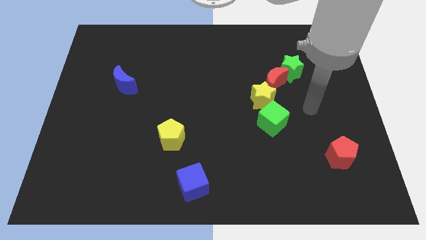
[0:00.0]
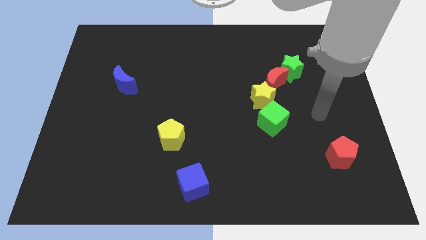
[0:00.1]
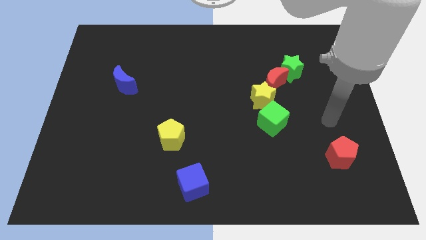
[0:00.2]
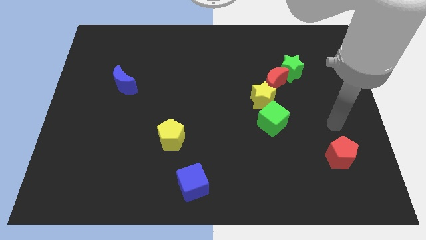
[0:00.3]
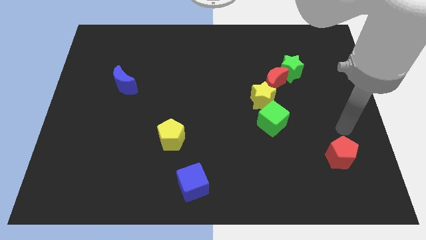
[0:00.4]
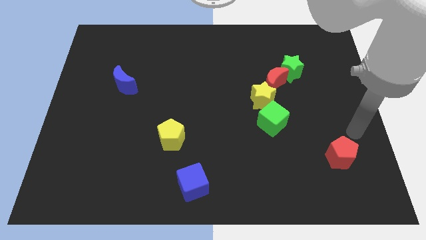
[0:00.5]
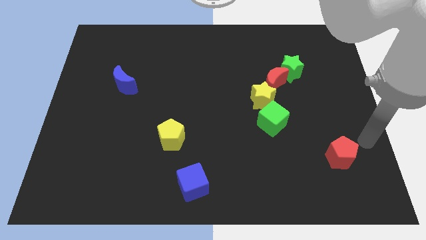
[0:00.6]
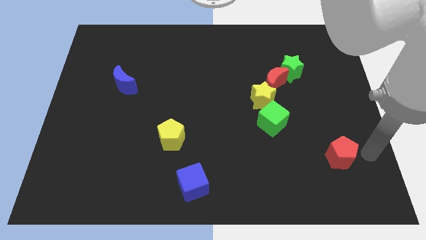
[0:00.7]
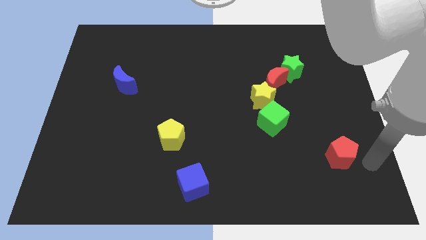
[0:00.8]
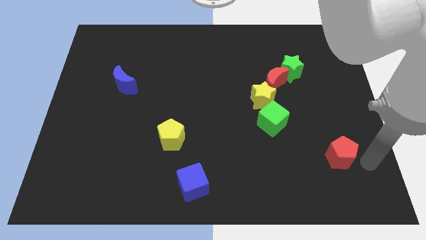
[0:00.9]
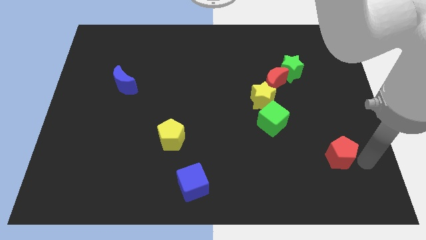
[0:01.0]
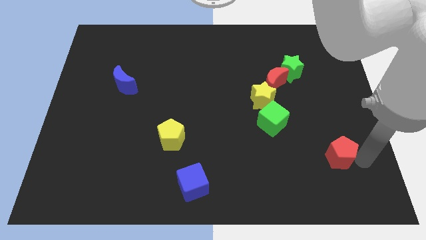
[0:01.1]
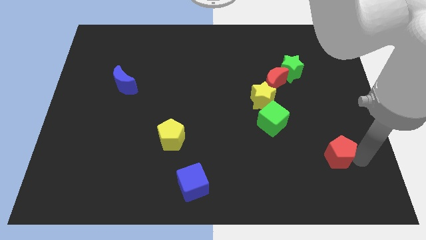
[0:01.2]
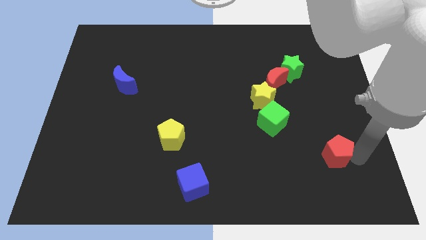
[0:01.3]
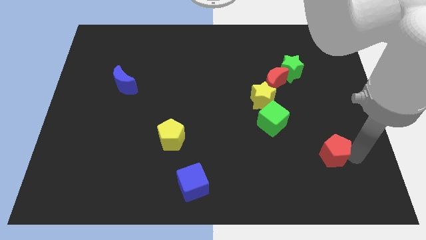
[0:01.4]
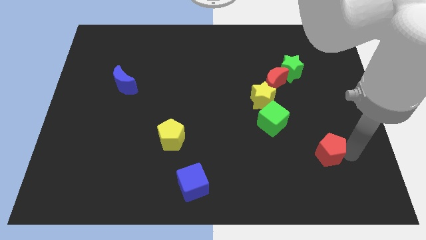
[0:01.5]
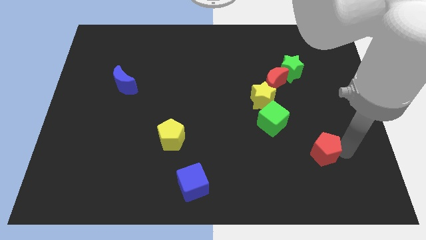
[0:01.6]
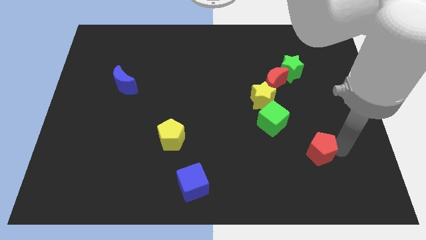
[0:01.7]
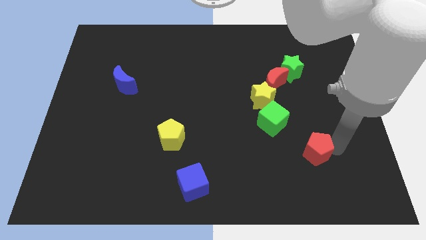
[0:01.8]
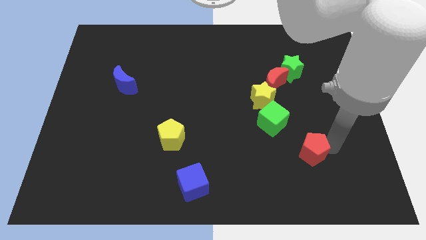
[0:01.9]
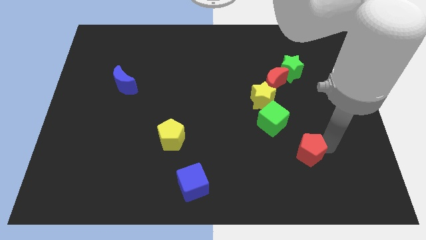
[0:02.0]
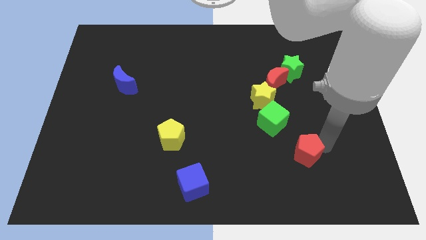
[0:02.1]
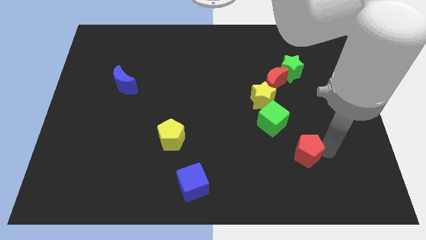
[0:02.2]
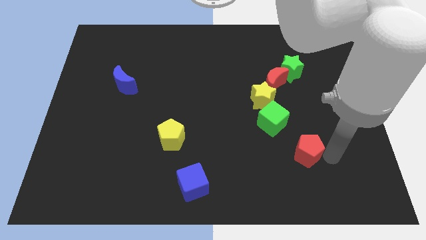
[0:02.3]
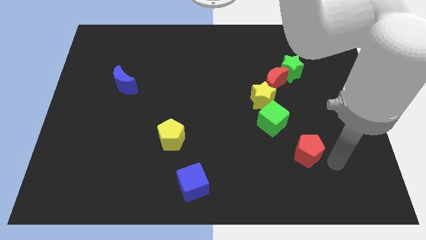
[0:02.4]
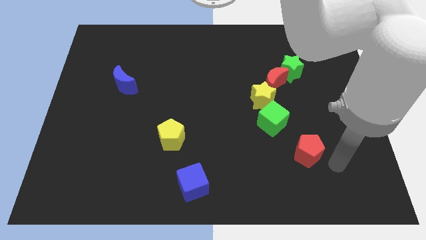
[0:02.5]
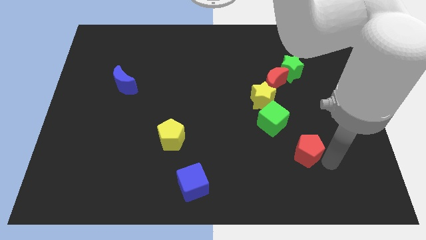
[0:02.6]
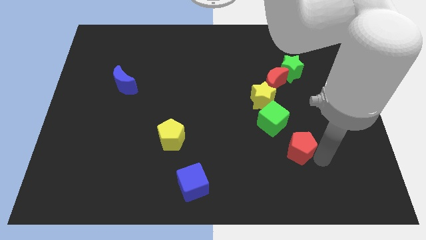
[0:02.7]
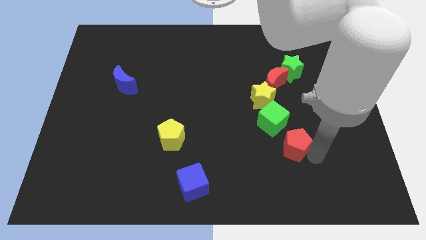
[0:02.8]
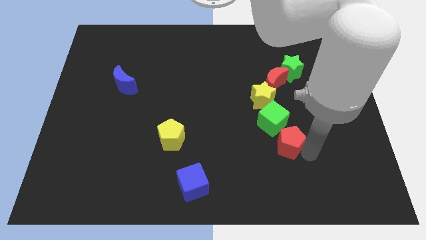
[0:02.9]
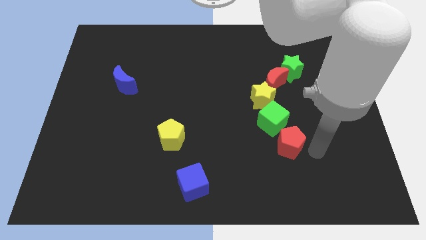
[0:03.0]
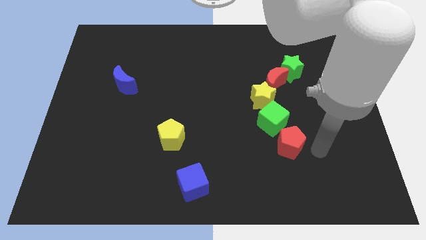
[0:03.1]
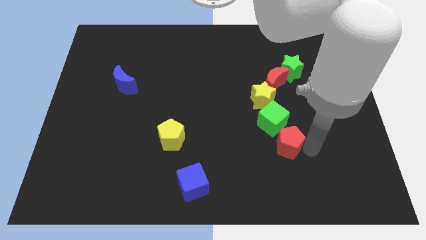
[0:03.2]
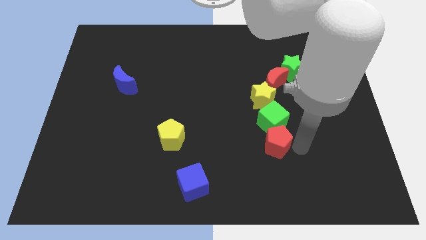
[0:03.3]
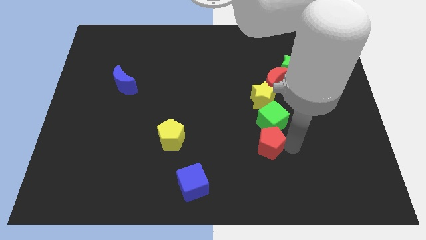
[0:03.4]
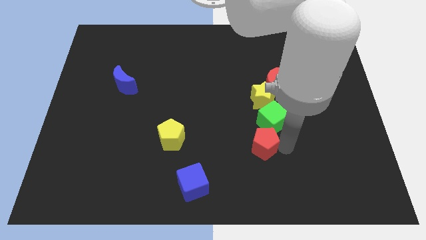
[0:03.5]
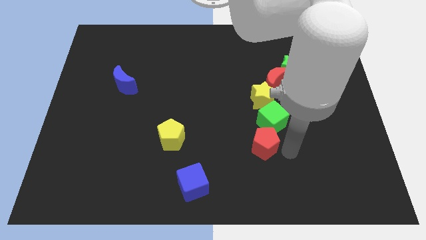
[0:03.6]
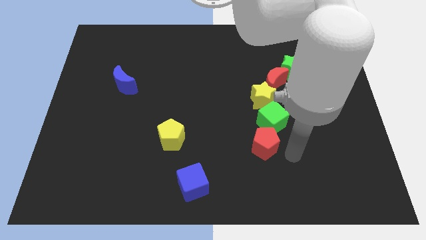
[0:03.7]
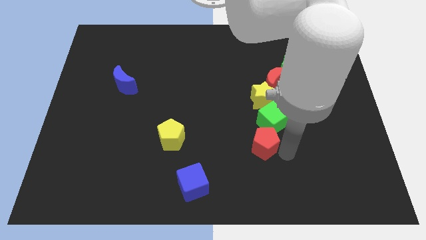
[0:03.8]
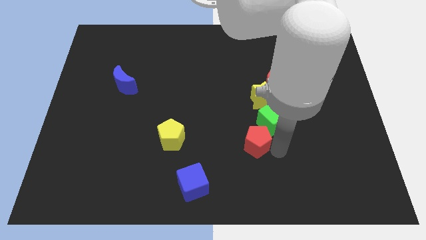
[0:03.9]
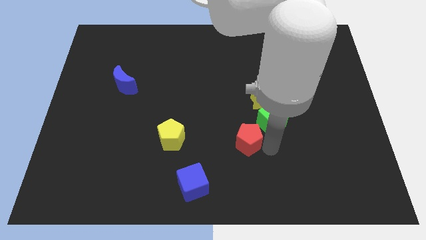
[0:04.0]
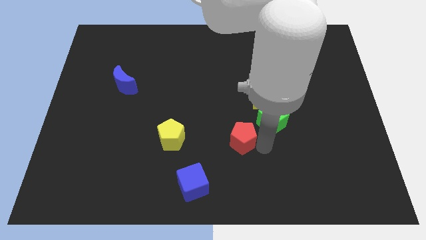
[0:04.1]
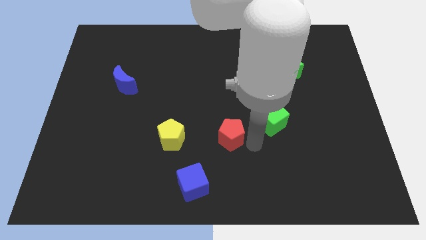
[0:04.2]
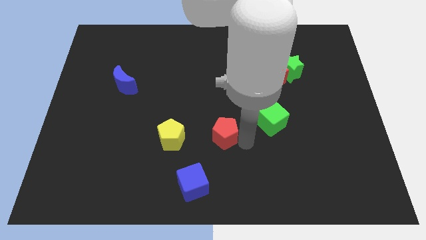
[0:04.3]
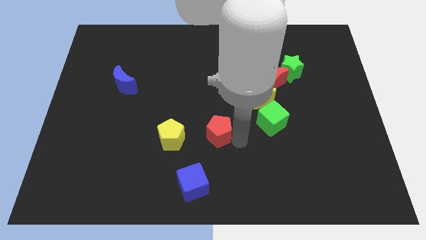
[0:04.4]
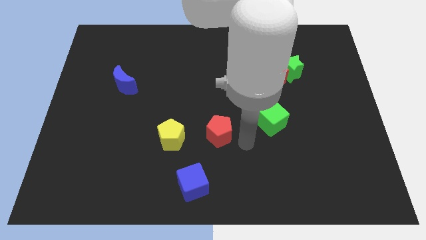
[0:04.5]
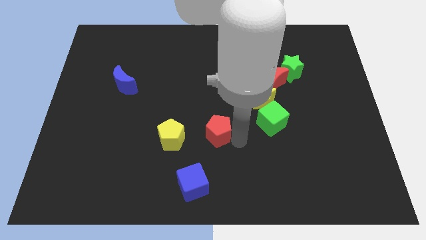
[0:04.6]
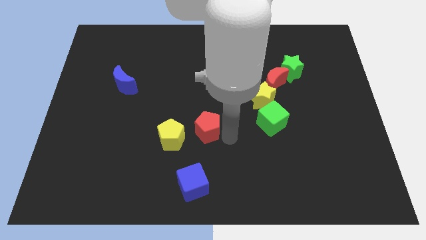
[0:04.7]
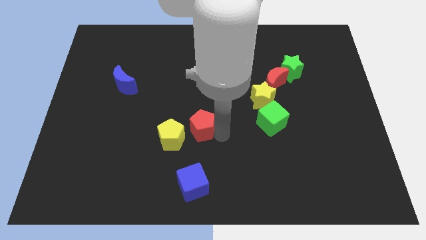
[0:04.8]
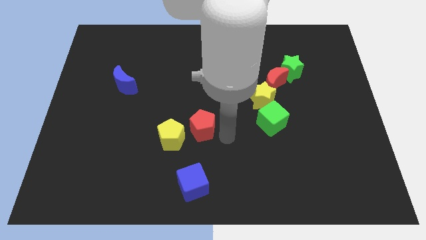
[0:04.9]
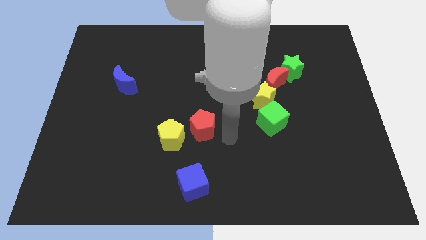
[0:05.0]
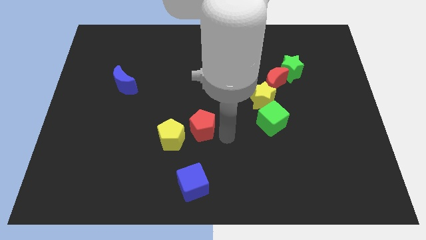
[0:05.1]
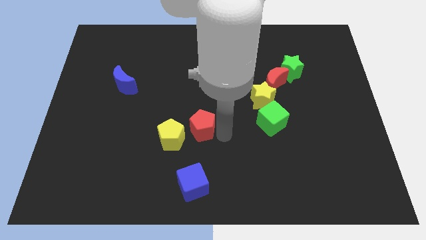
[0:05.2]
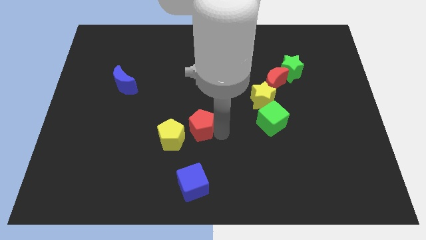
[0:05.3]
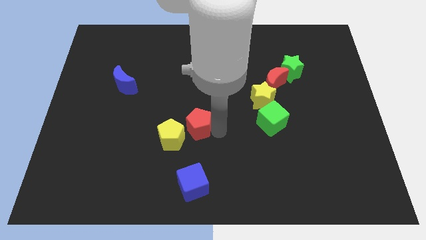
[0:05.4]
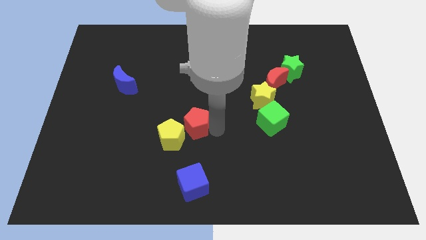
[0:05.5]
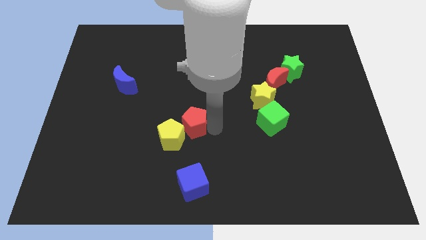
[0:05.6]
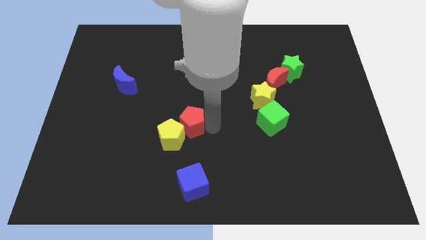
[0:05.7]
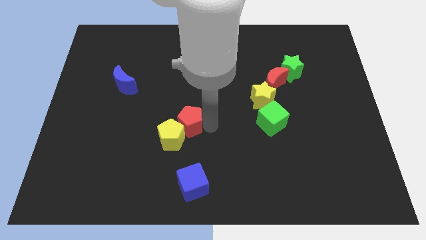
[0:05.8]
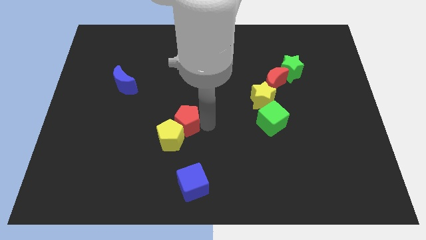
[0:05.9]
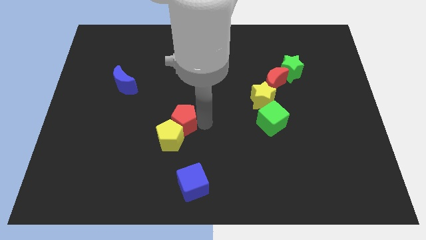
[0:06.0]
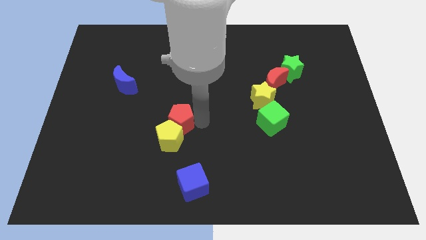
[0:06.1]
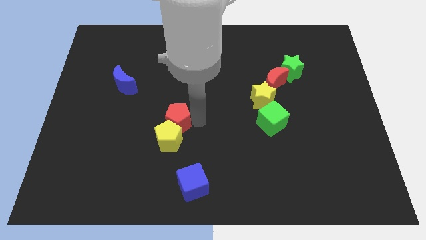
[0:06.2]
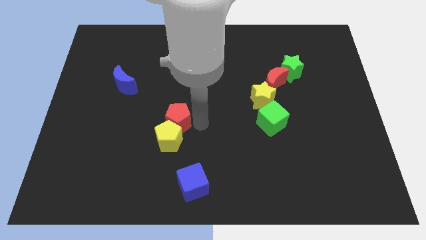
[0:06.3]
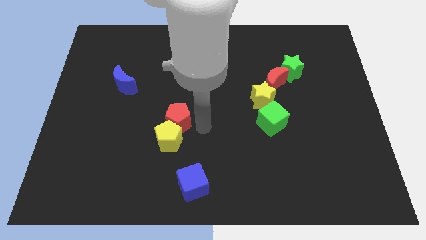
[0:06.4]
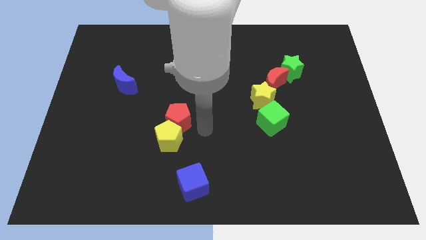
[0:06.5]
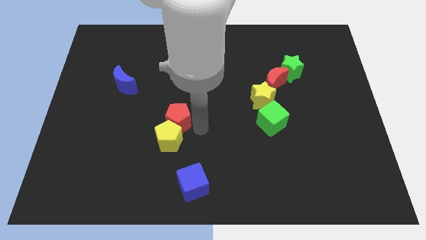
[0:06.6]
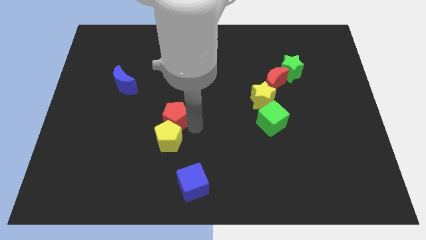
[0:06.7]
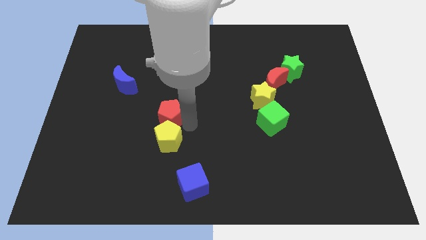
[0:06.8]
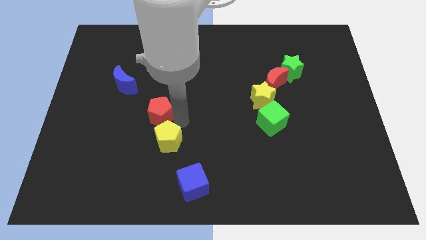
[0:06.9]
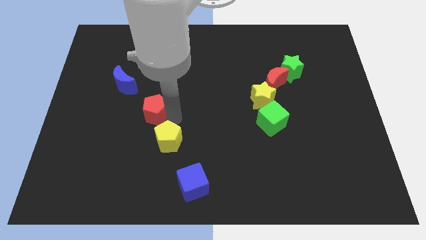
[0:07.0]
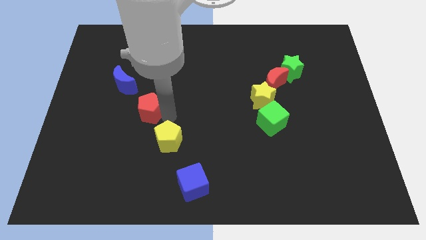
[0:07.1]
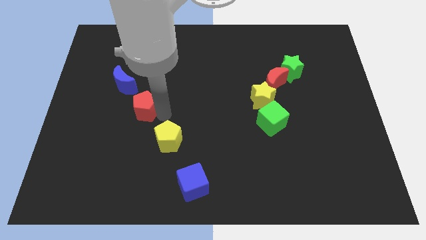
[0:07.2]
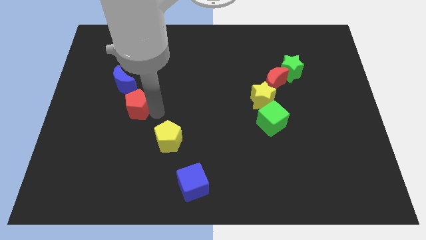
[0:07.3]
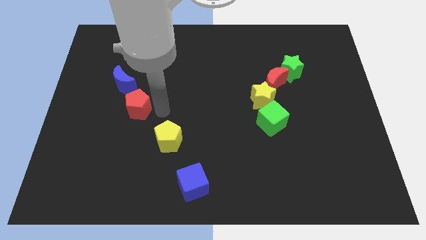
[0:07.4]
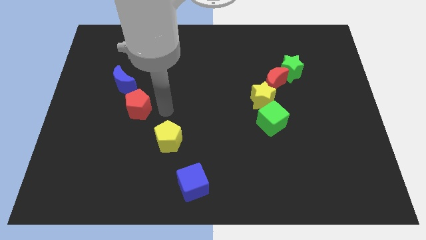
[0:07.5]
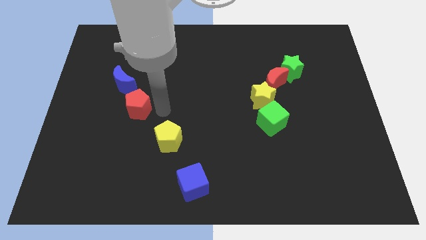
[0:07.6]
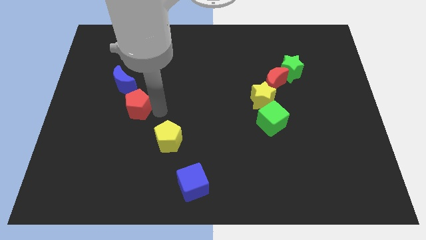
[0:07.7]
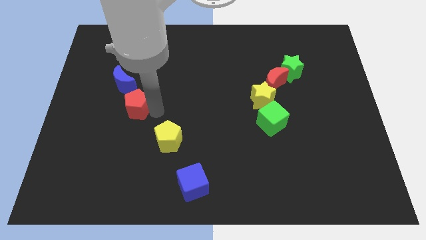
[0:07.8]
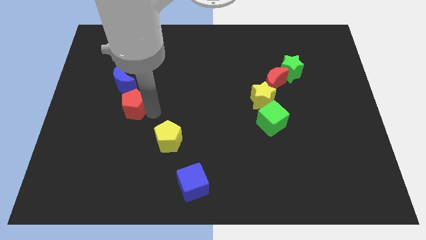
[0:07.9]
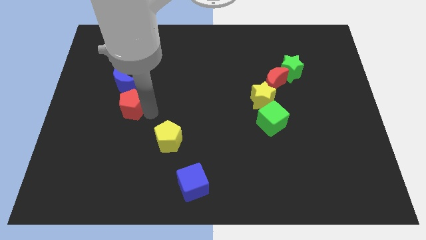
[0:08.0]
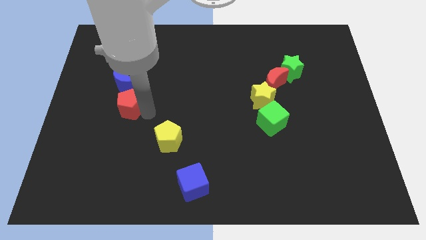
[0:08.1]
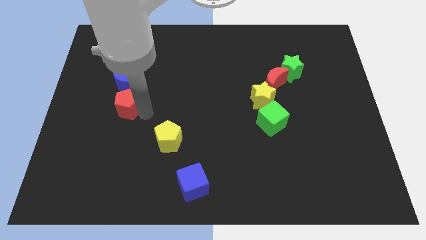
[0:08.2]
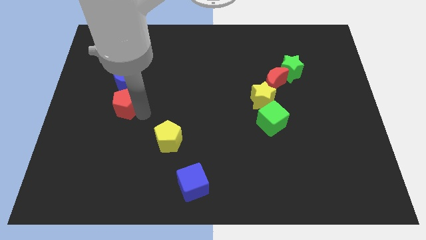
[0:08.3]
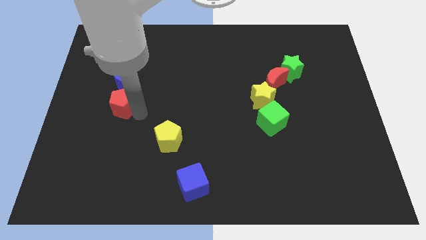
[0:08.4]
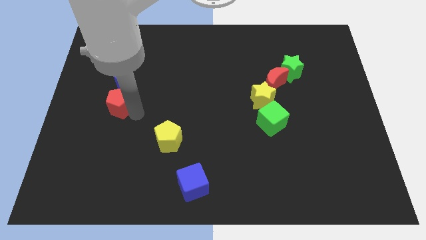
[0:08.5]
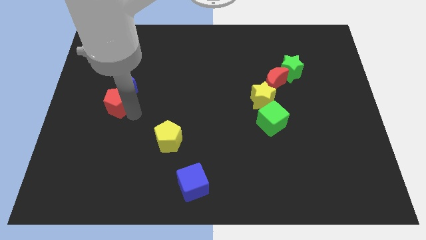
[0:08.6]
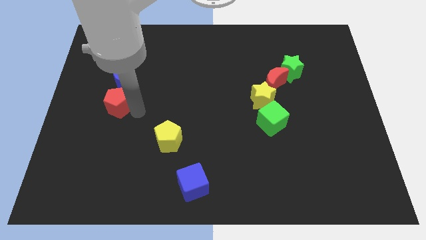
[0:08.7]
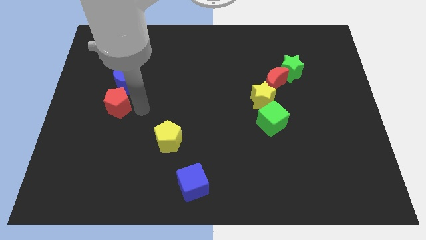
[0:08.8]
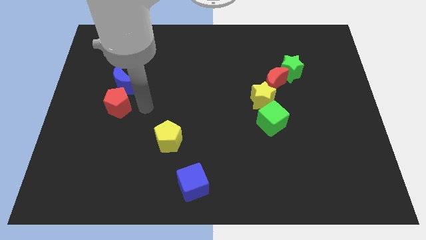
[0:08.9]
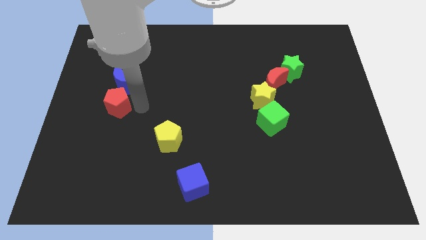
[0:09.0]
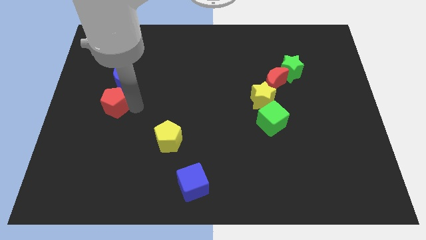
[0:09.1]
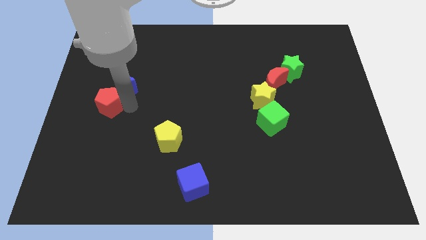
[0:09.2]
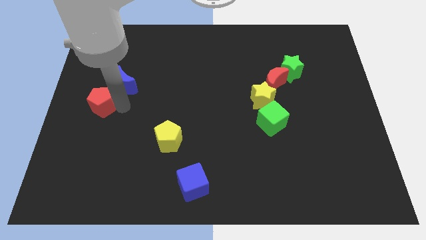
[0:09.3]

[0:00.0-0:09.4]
push the red pentagon to the center left
